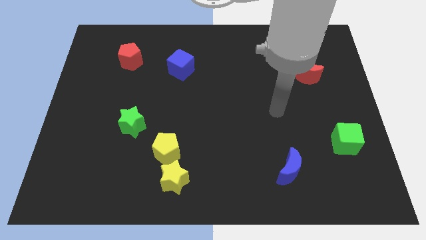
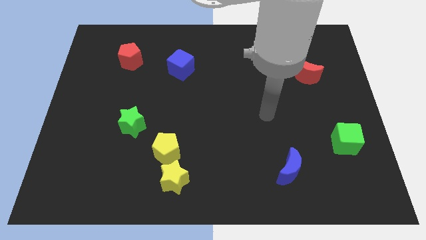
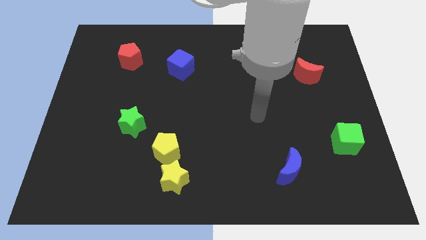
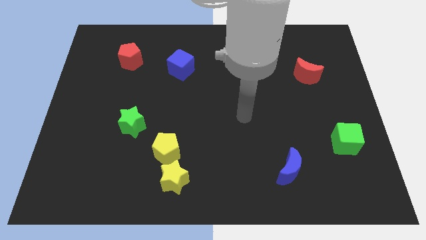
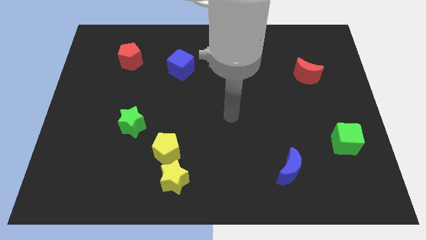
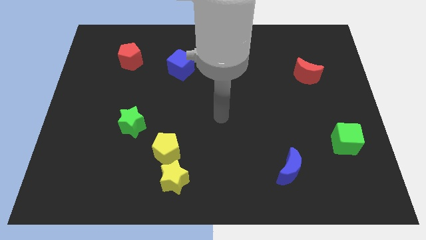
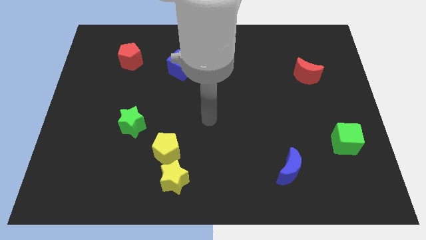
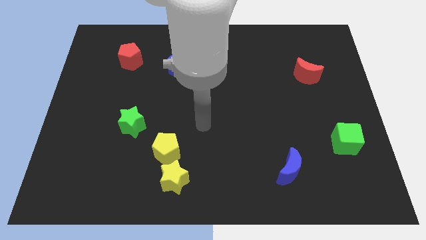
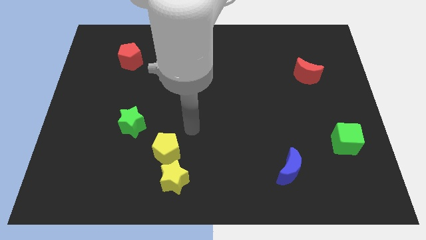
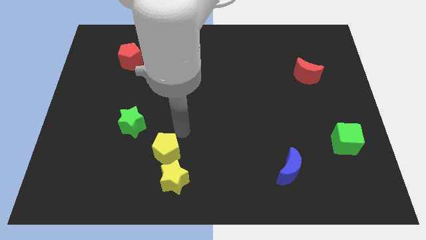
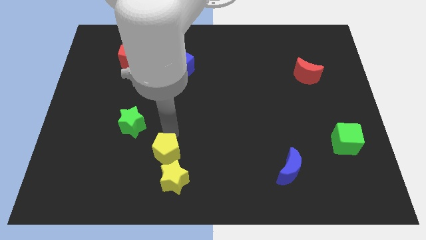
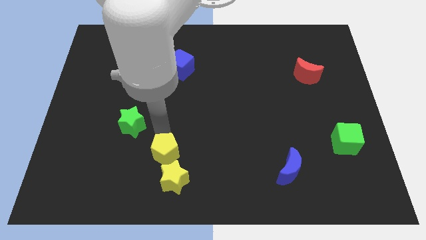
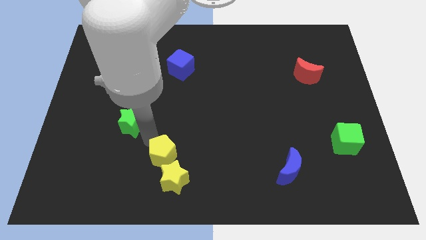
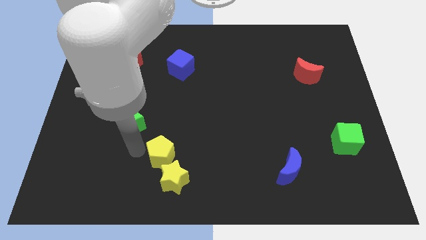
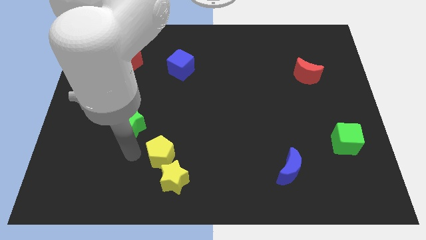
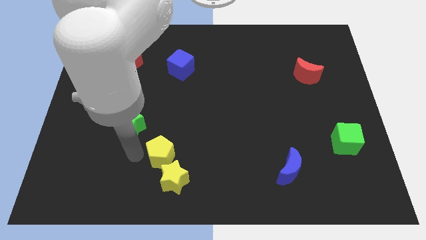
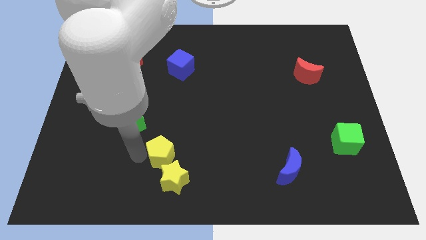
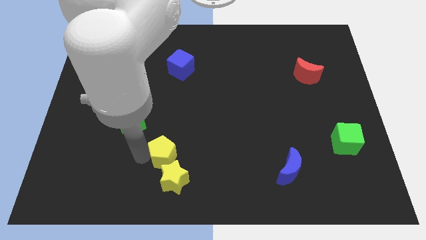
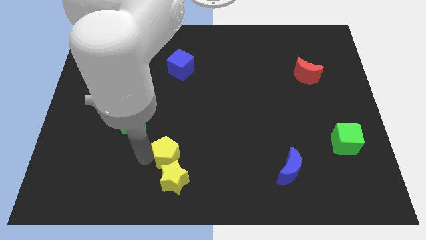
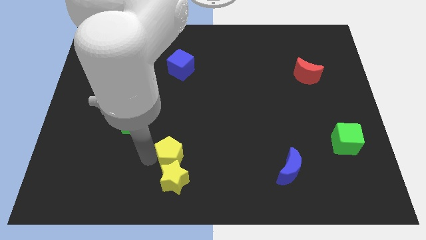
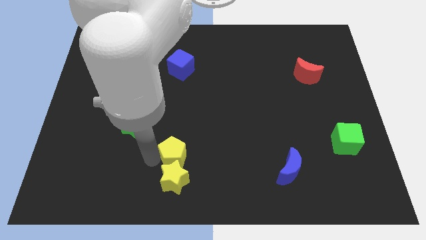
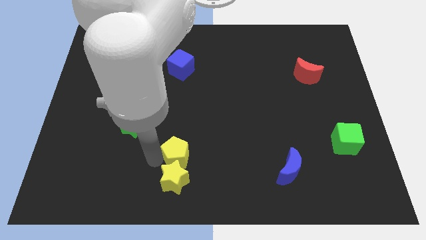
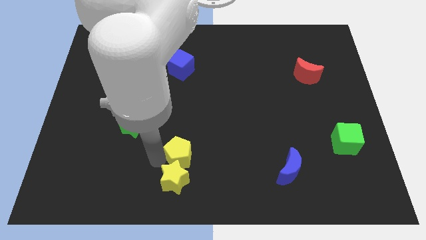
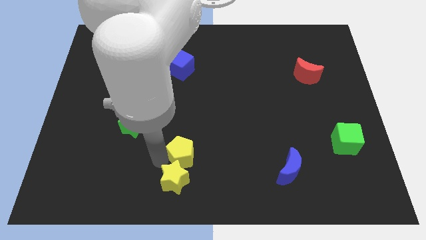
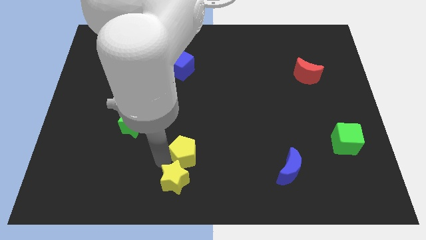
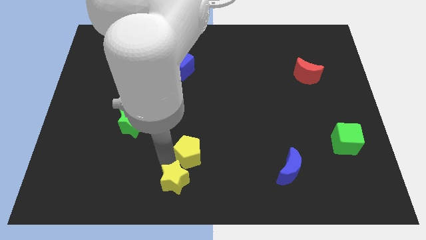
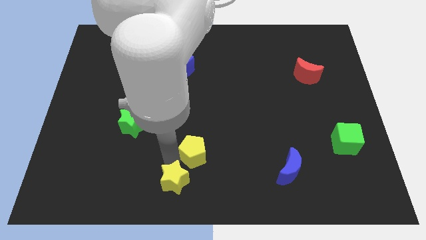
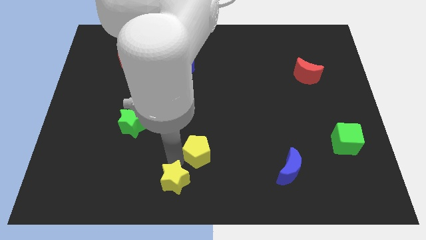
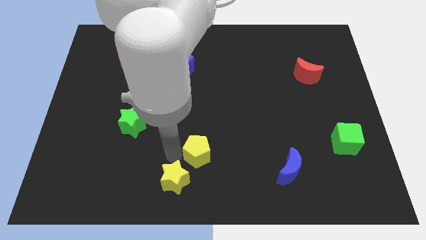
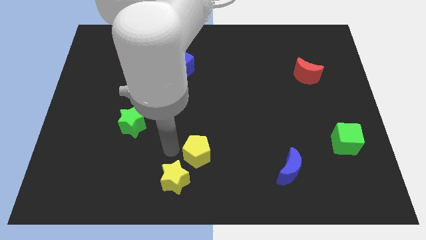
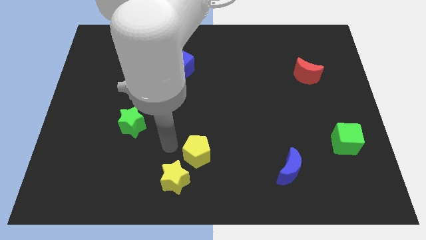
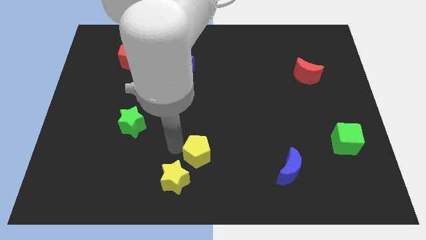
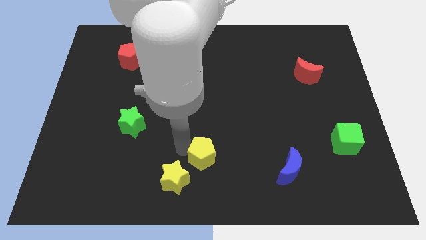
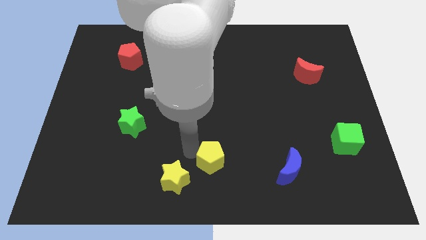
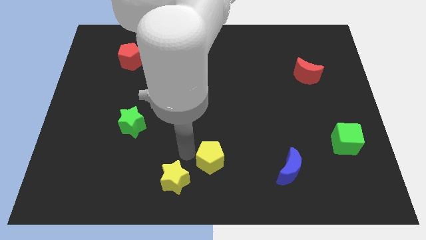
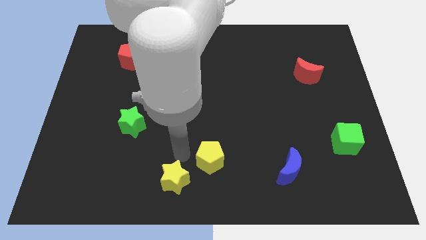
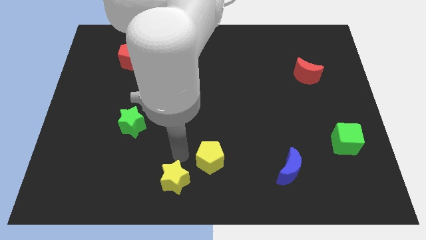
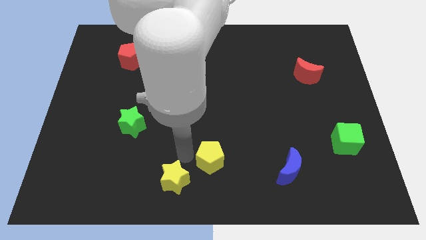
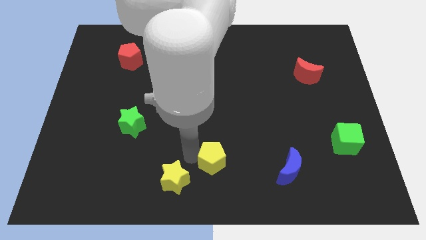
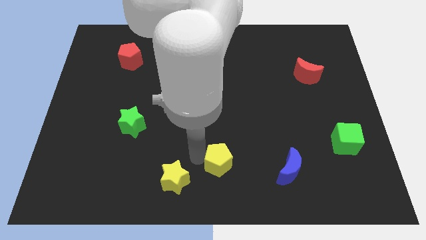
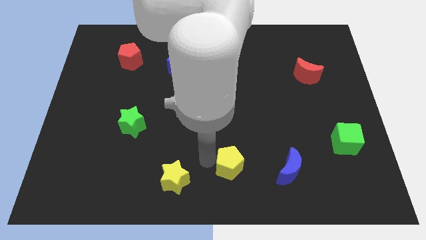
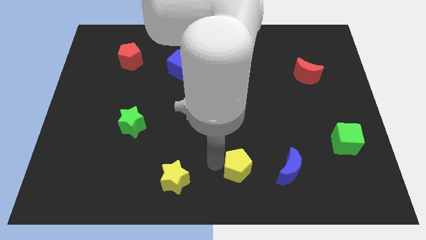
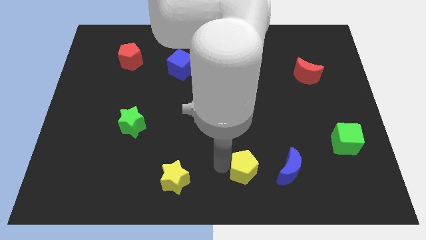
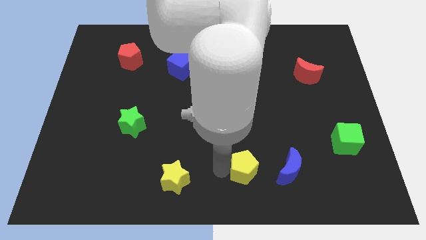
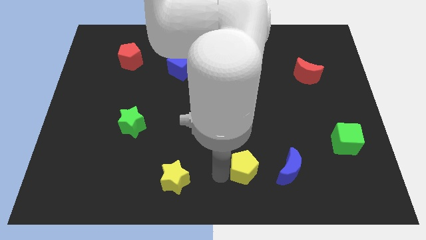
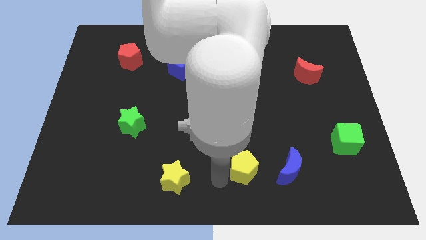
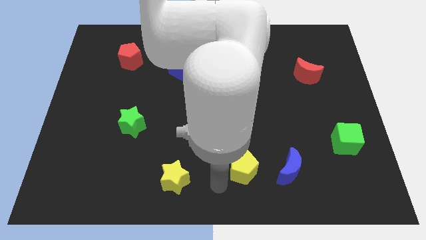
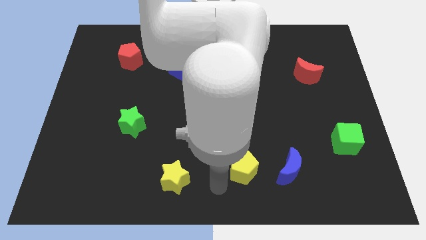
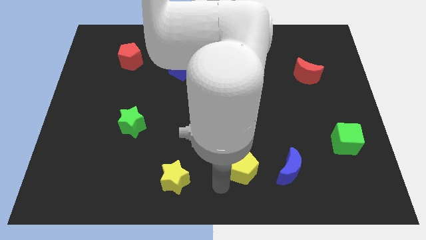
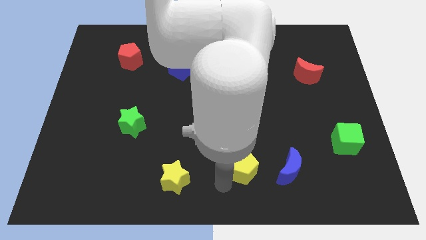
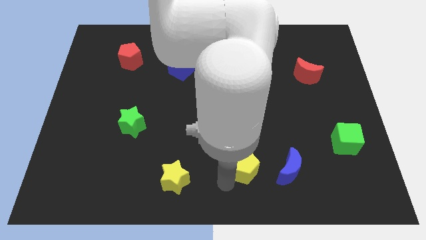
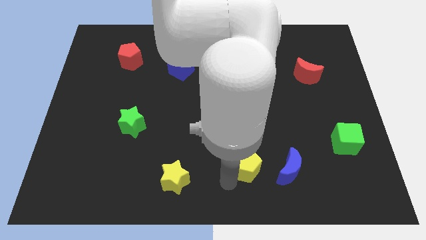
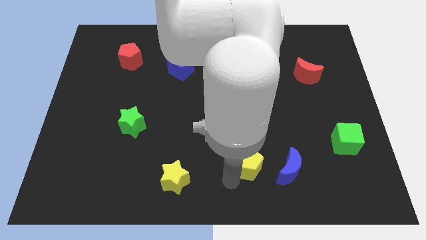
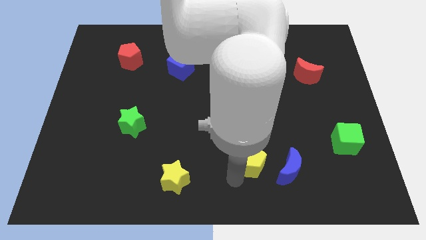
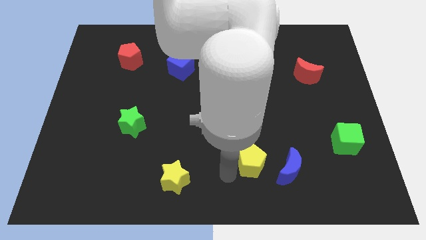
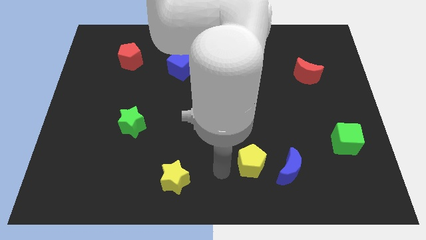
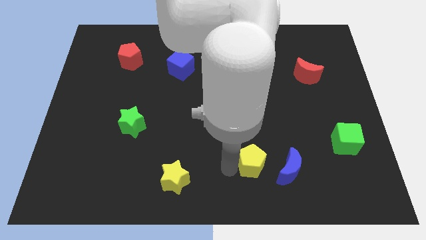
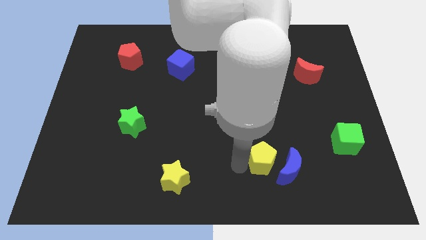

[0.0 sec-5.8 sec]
push the yellow pentagon right

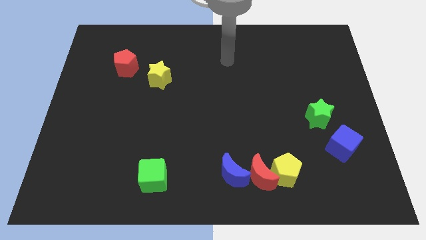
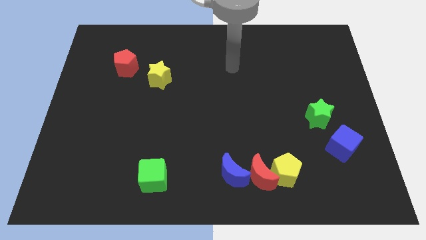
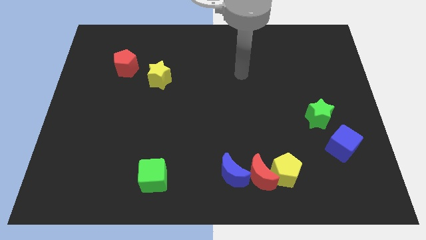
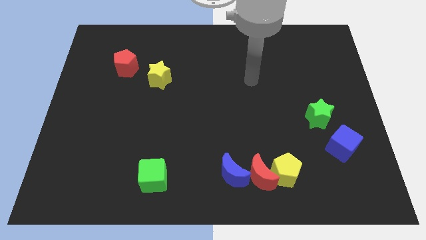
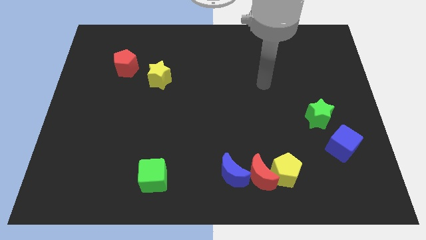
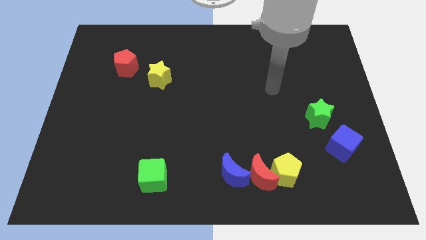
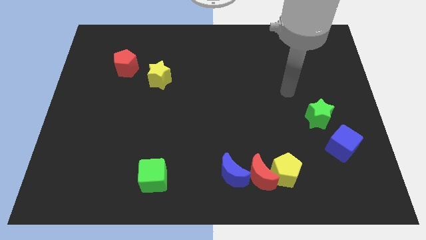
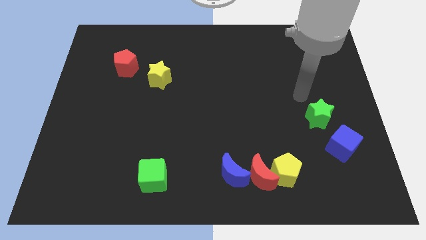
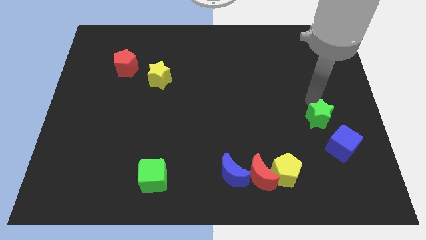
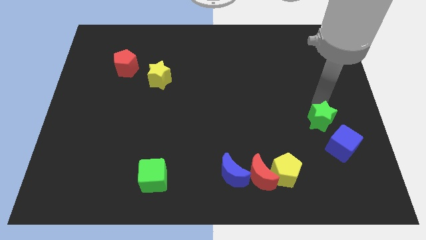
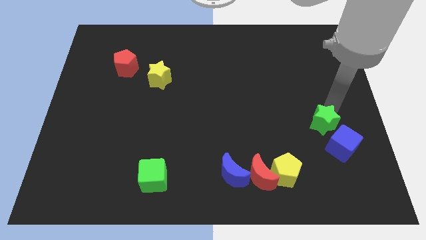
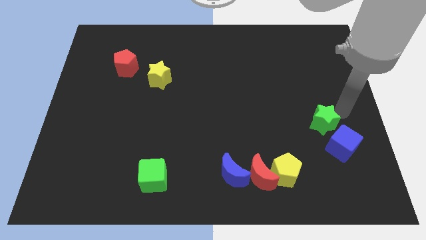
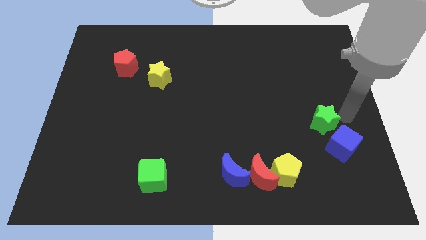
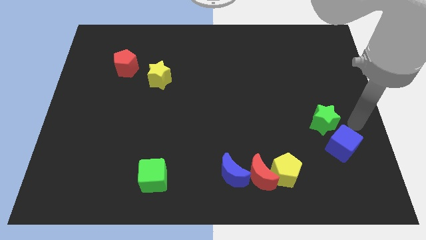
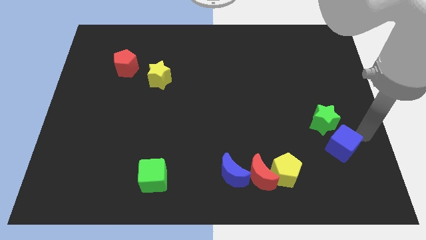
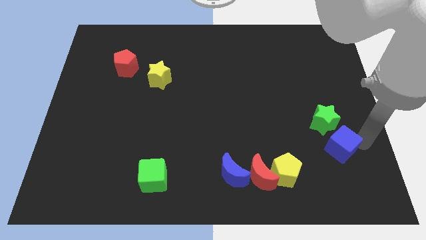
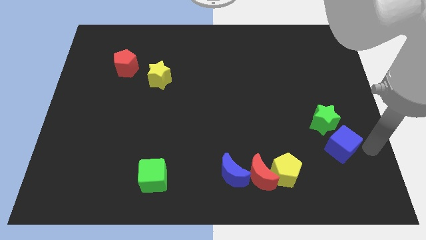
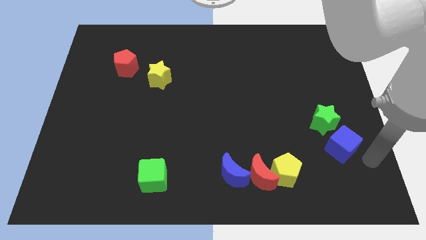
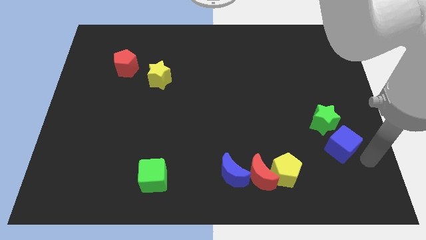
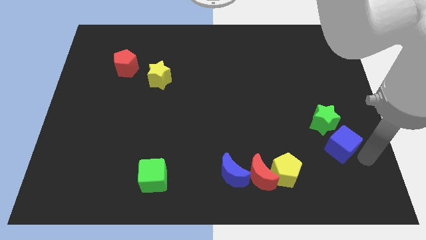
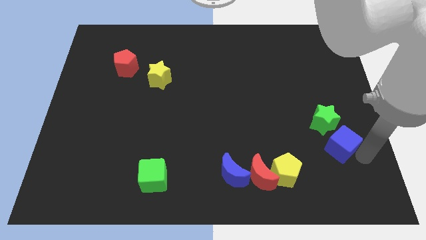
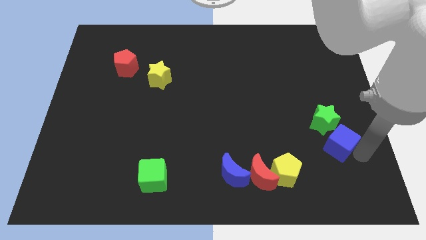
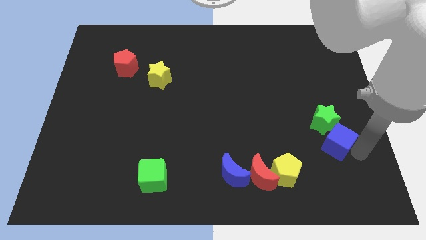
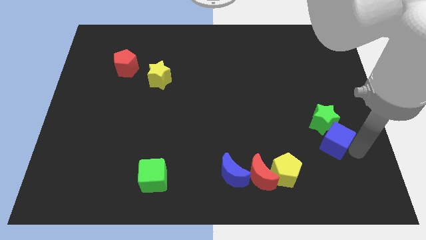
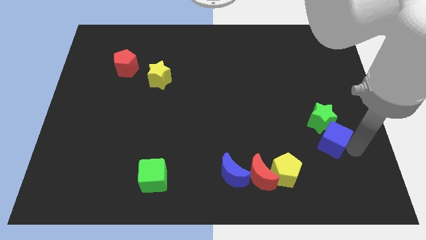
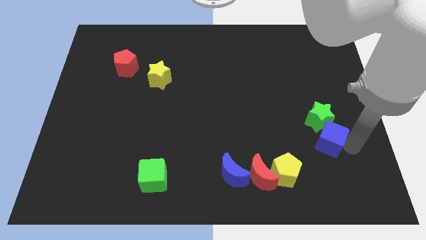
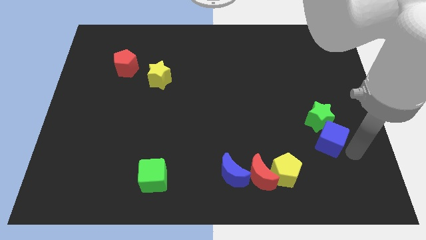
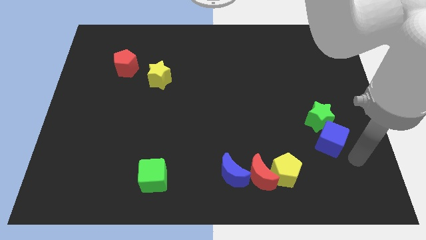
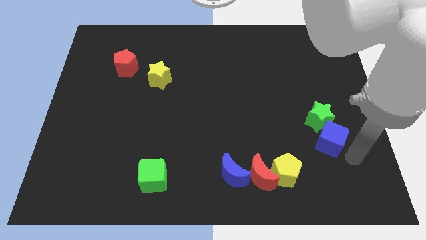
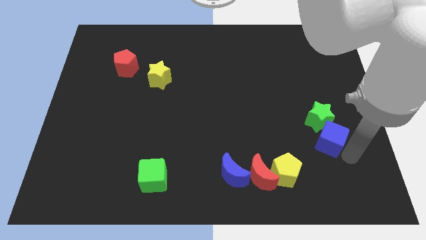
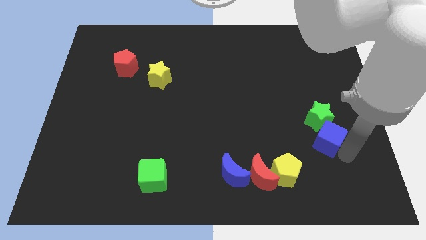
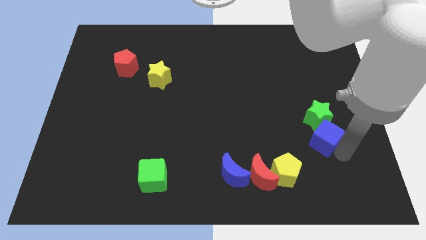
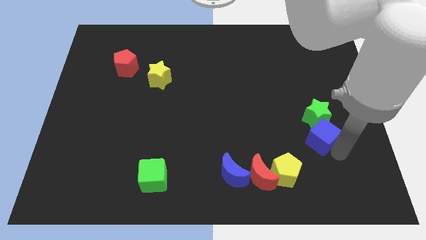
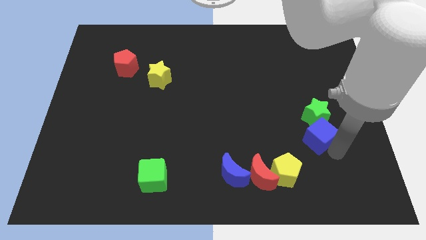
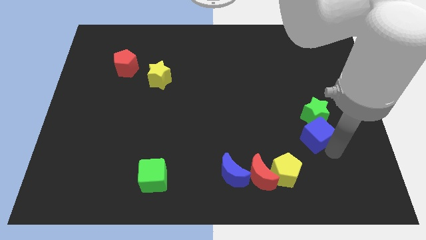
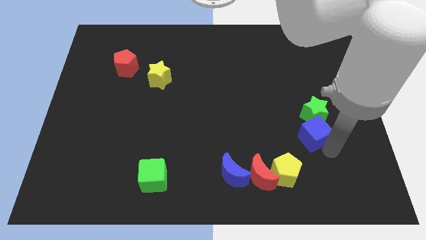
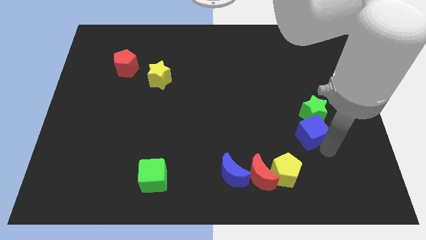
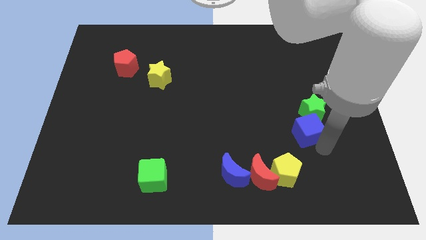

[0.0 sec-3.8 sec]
slightly push the blue cube up and to the left diagonally
